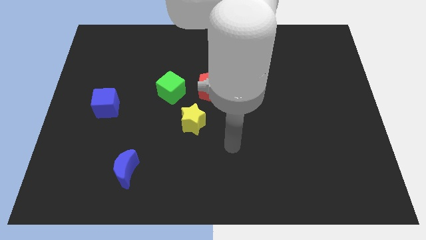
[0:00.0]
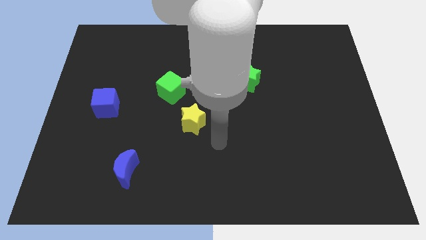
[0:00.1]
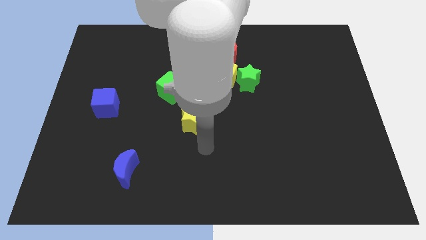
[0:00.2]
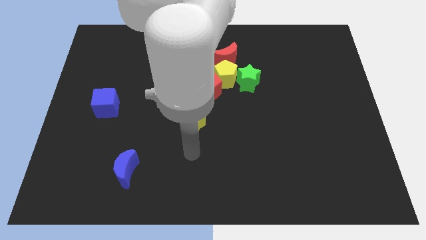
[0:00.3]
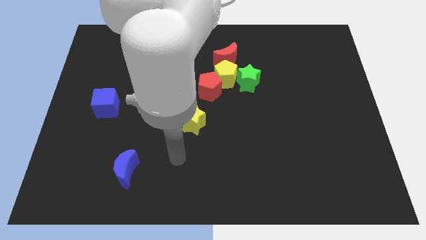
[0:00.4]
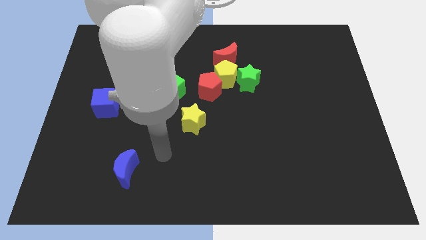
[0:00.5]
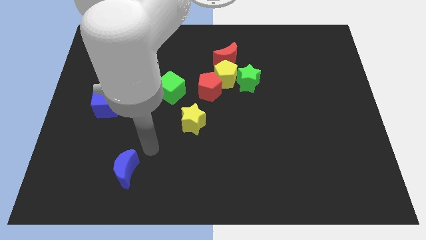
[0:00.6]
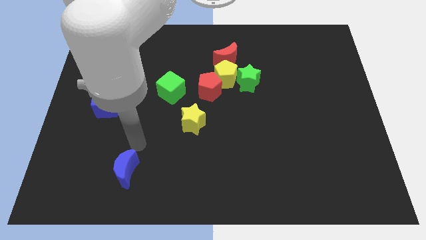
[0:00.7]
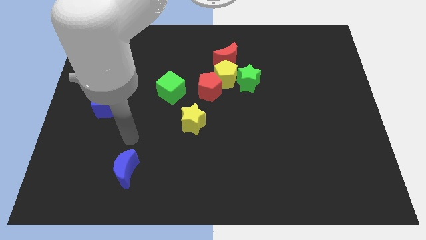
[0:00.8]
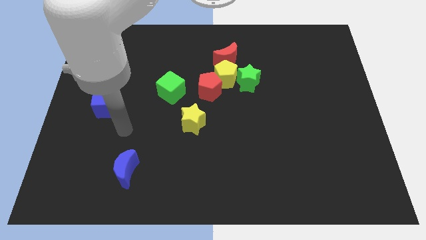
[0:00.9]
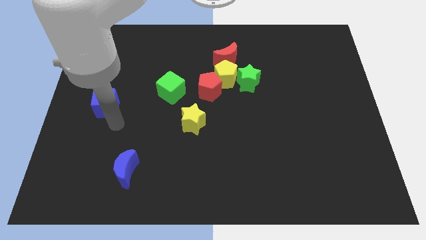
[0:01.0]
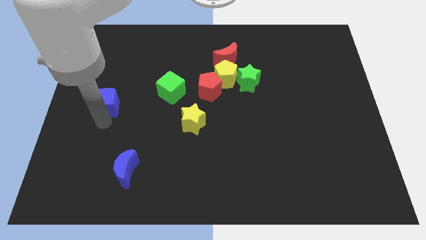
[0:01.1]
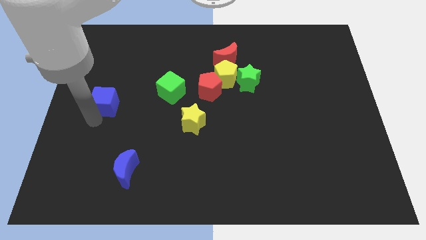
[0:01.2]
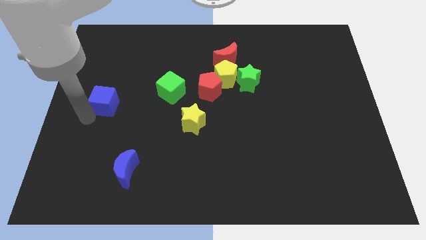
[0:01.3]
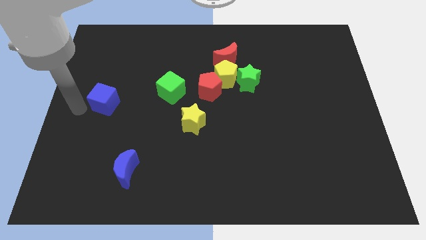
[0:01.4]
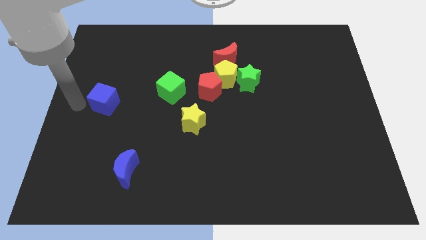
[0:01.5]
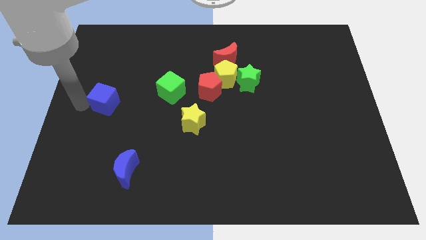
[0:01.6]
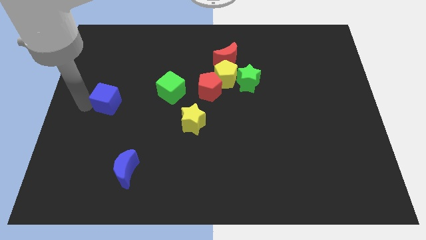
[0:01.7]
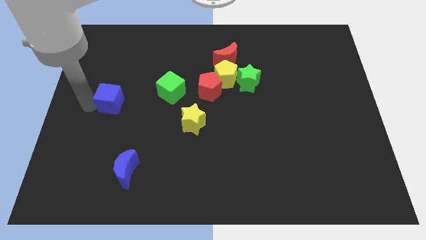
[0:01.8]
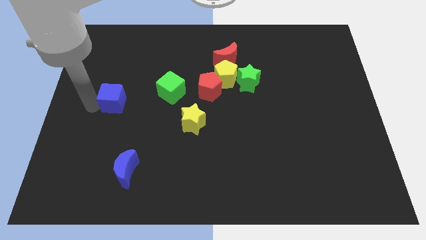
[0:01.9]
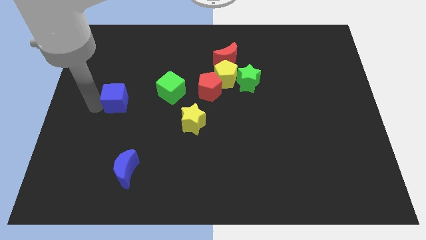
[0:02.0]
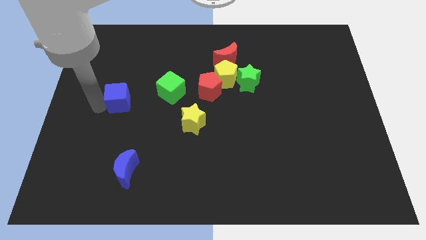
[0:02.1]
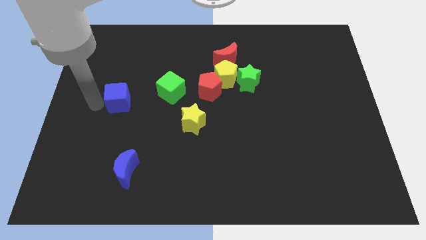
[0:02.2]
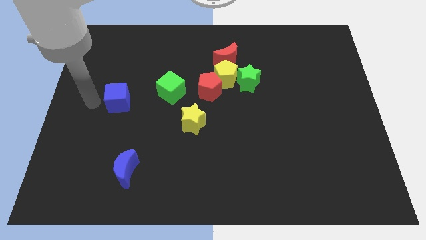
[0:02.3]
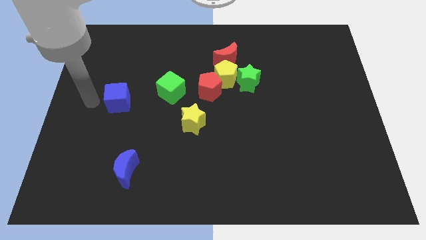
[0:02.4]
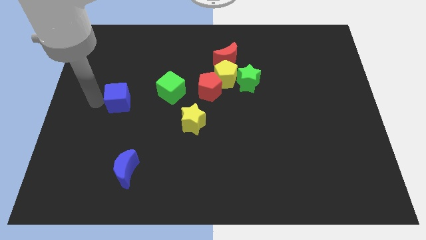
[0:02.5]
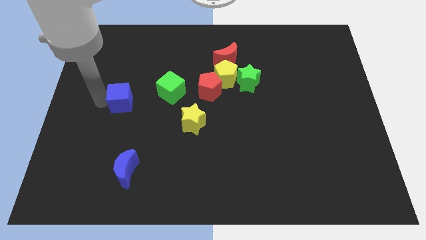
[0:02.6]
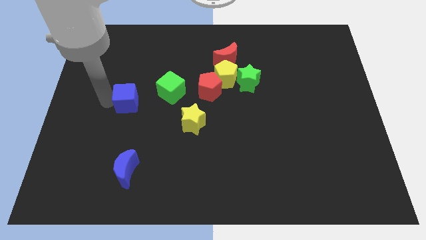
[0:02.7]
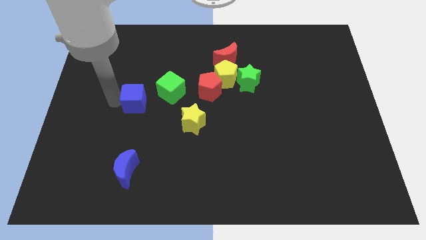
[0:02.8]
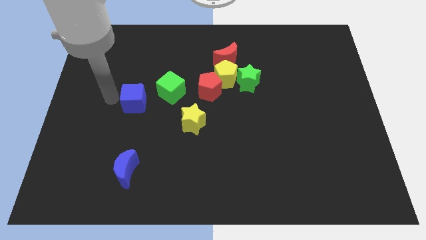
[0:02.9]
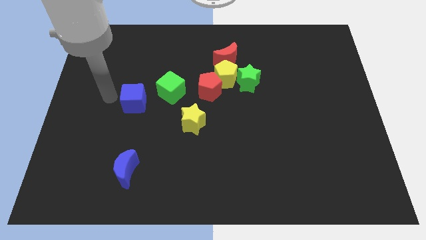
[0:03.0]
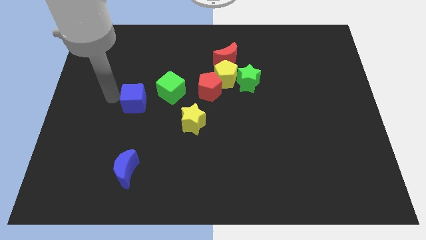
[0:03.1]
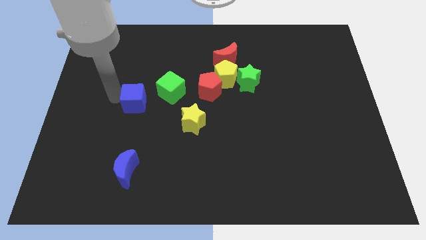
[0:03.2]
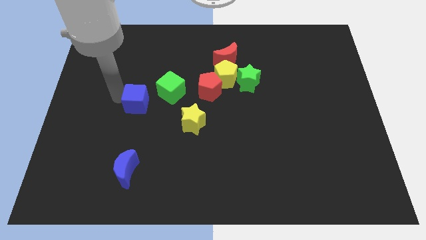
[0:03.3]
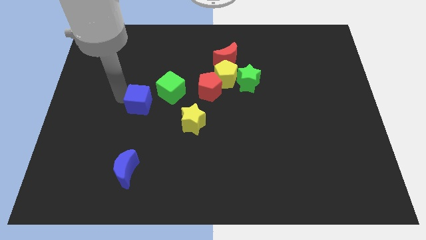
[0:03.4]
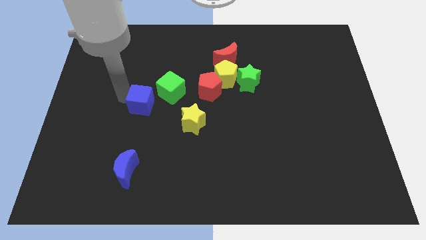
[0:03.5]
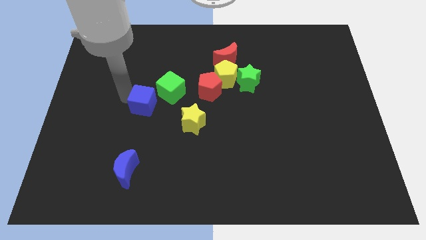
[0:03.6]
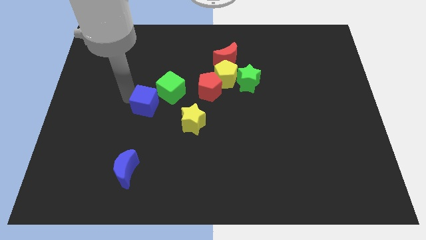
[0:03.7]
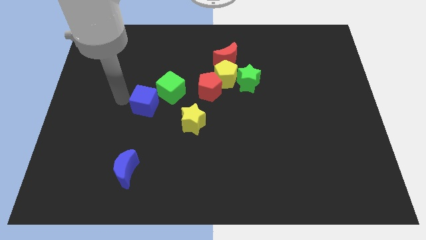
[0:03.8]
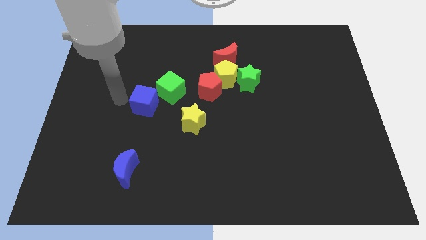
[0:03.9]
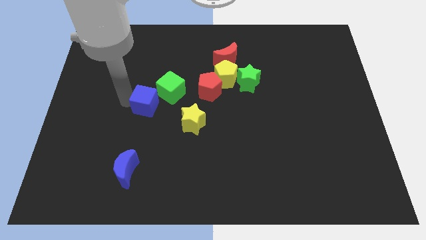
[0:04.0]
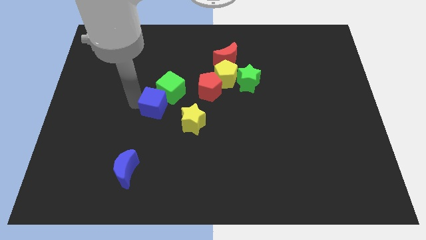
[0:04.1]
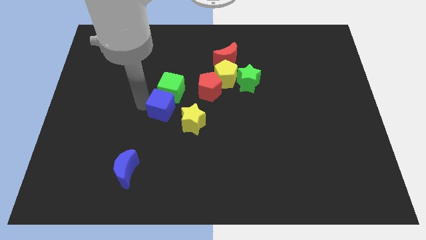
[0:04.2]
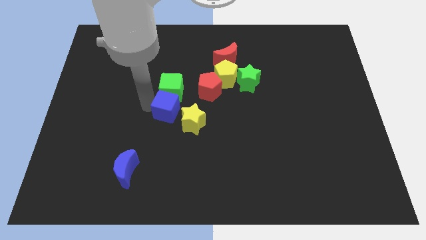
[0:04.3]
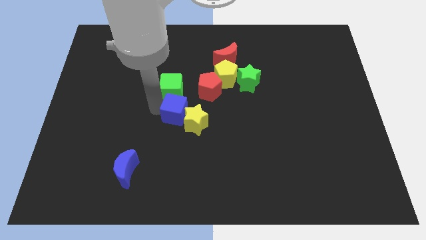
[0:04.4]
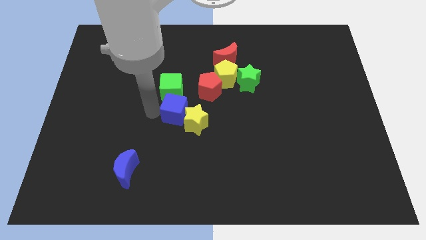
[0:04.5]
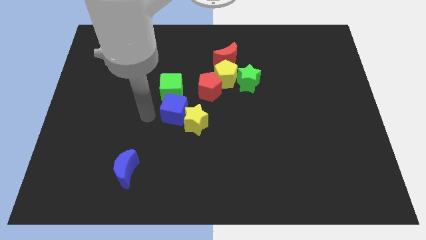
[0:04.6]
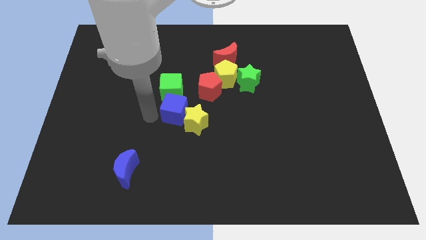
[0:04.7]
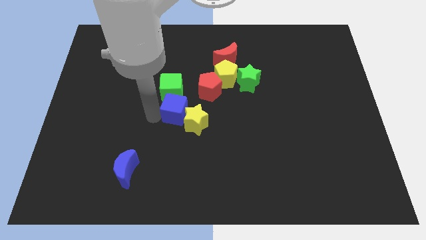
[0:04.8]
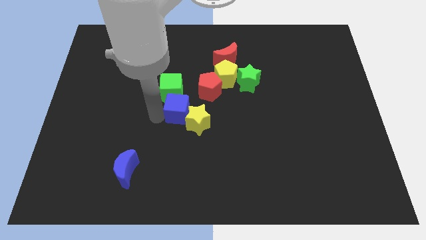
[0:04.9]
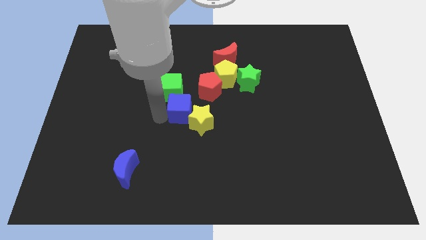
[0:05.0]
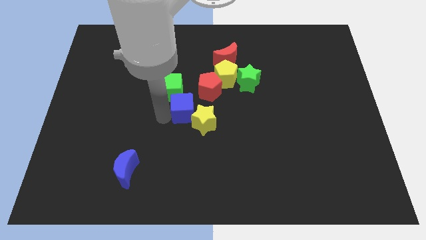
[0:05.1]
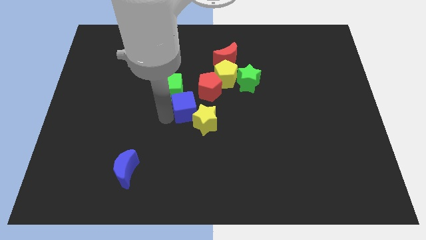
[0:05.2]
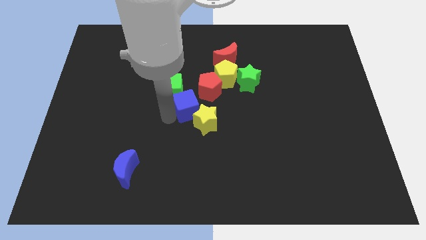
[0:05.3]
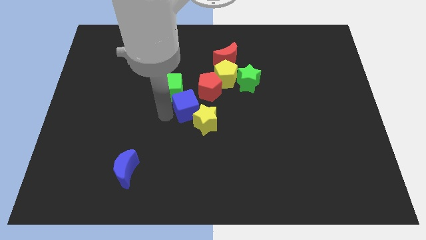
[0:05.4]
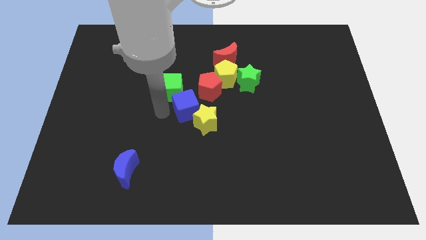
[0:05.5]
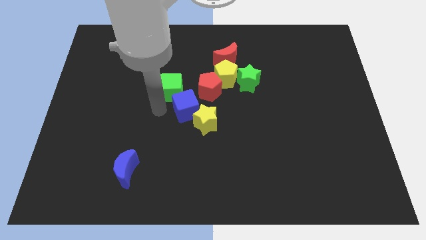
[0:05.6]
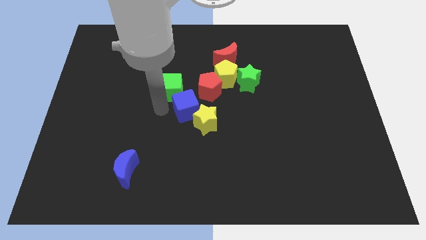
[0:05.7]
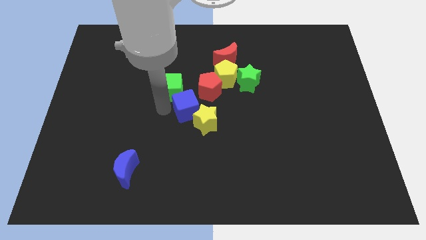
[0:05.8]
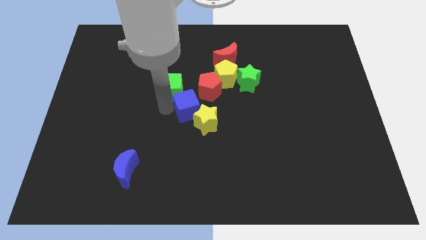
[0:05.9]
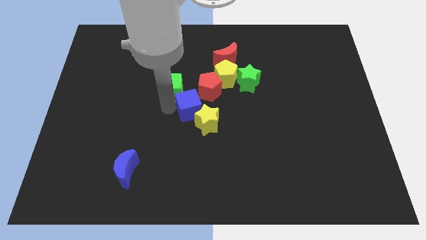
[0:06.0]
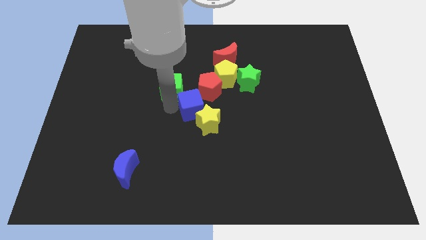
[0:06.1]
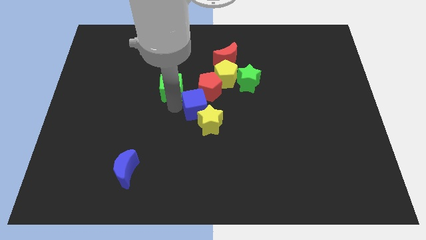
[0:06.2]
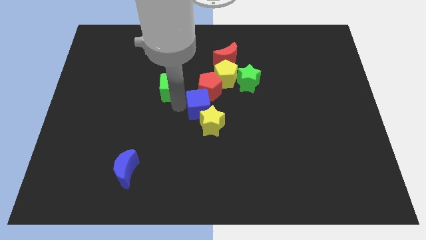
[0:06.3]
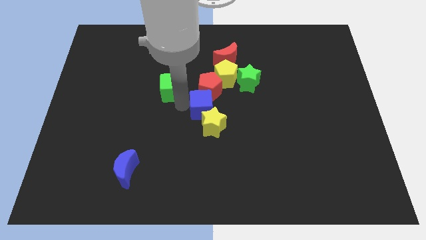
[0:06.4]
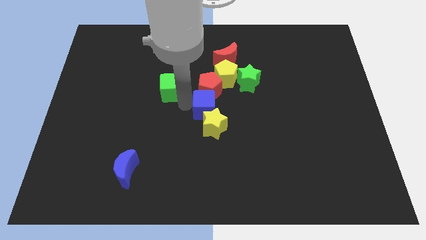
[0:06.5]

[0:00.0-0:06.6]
push the blue cube diagonally down and to the right of the red pentagon
